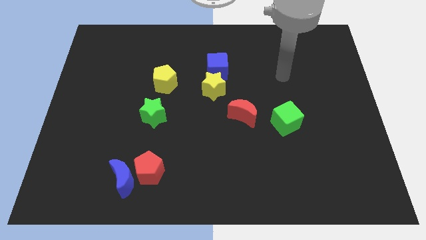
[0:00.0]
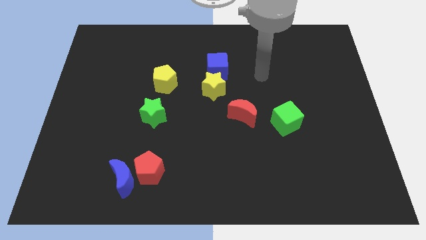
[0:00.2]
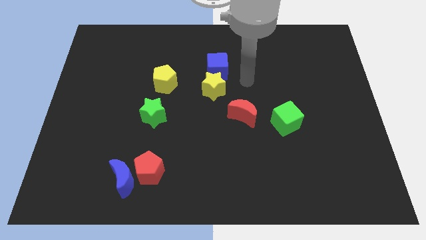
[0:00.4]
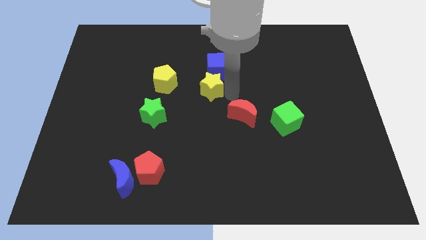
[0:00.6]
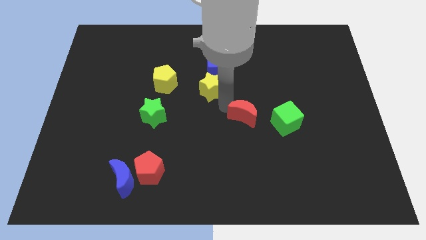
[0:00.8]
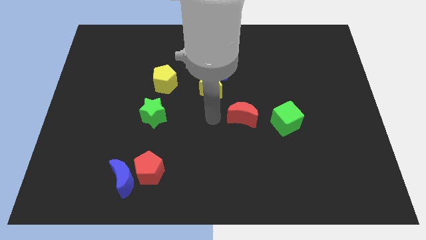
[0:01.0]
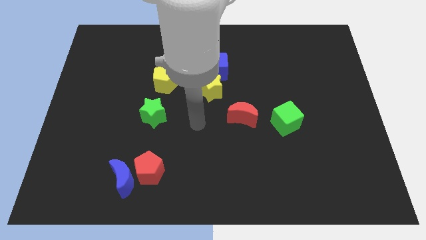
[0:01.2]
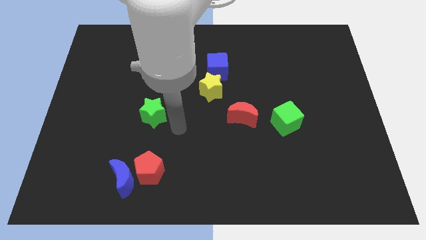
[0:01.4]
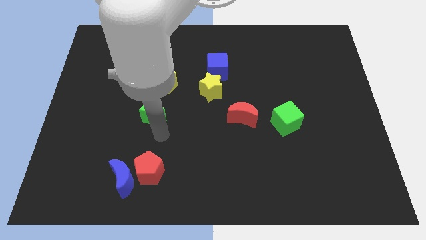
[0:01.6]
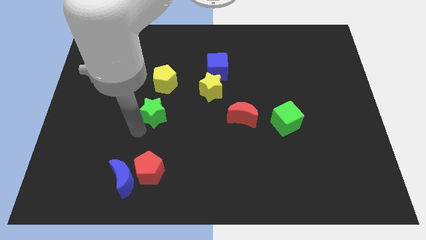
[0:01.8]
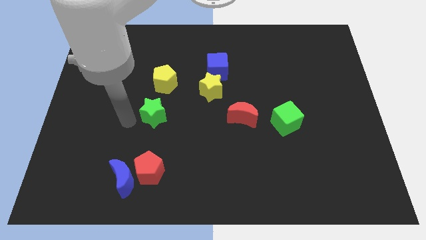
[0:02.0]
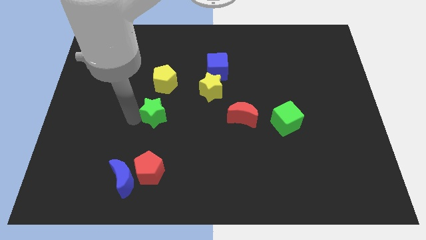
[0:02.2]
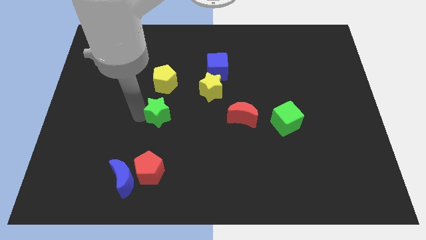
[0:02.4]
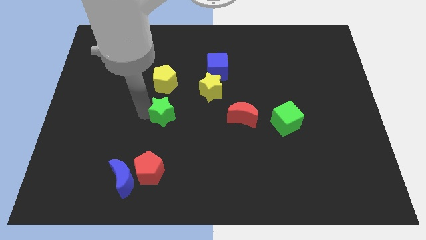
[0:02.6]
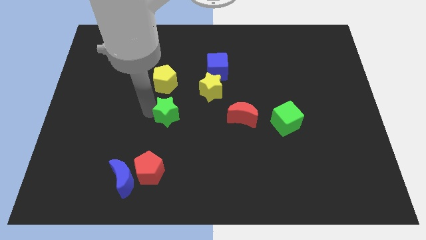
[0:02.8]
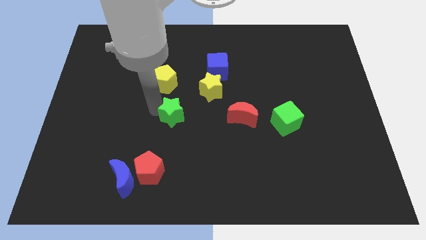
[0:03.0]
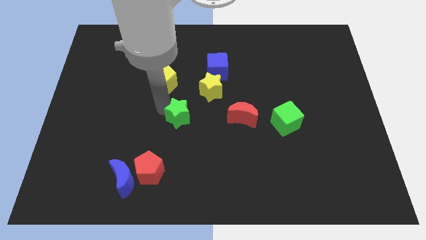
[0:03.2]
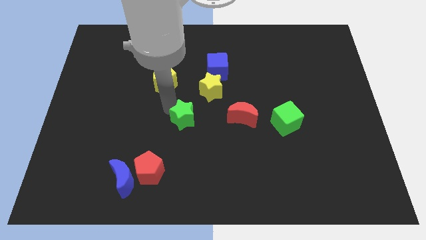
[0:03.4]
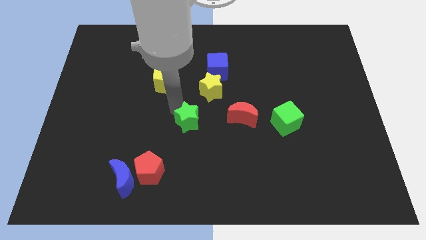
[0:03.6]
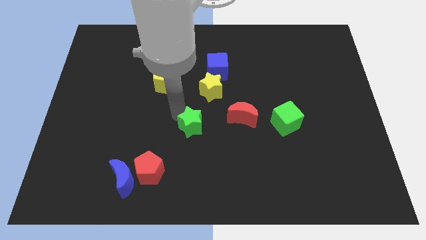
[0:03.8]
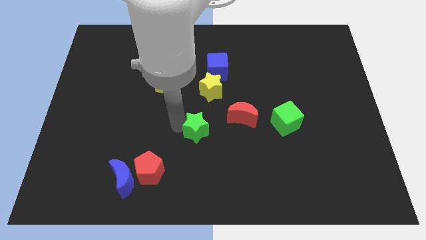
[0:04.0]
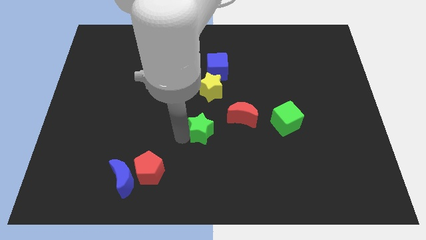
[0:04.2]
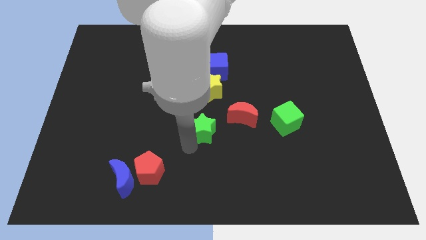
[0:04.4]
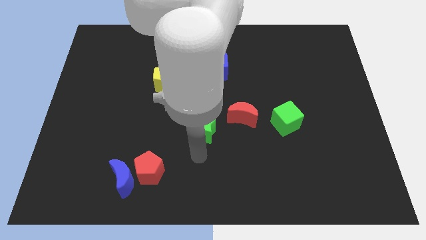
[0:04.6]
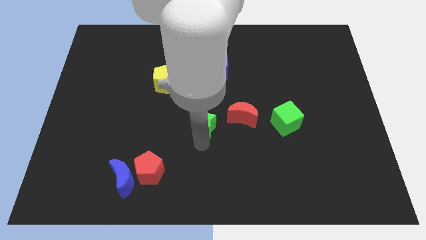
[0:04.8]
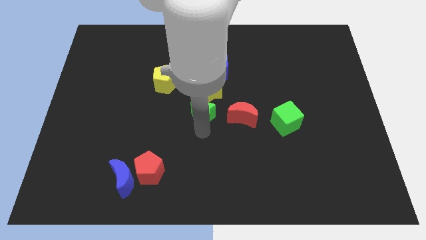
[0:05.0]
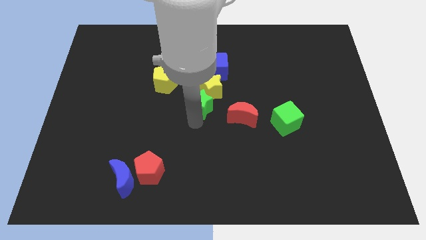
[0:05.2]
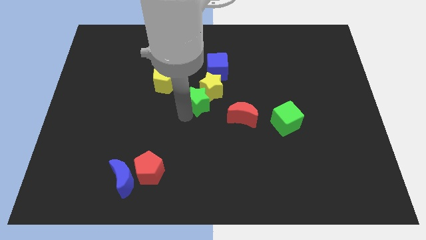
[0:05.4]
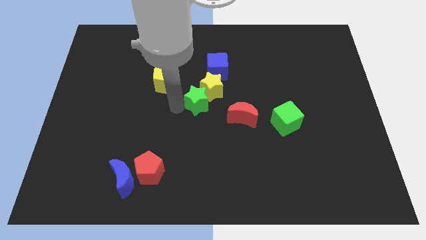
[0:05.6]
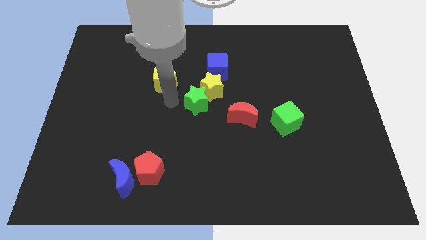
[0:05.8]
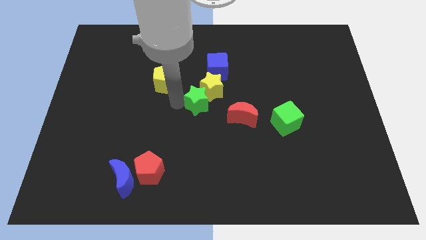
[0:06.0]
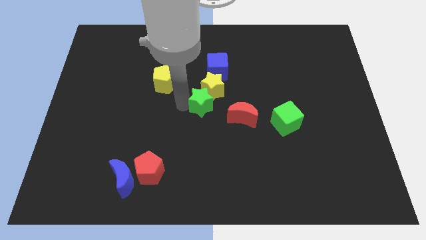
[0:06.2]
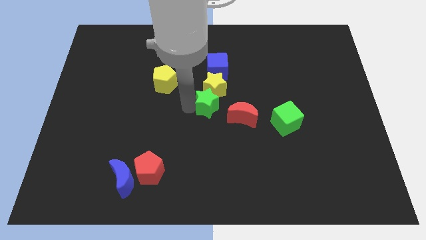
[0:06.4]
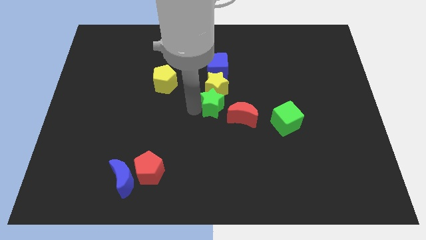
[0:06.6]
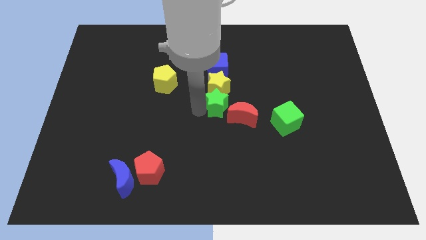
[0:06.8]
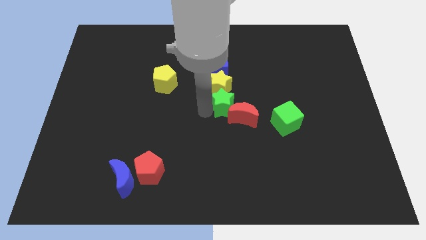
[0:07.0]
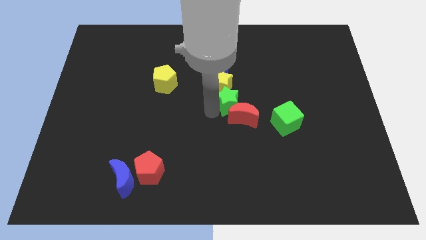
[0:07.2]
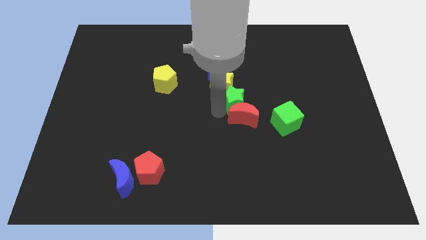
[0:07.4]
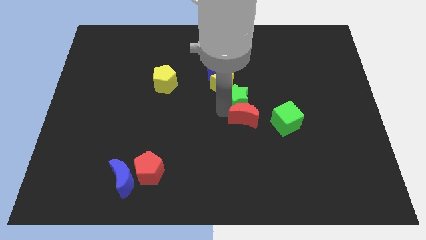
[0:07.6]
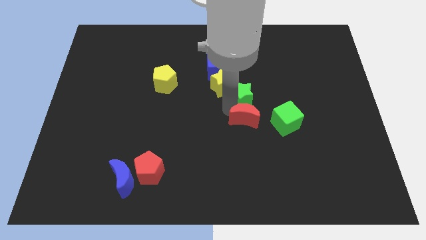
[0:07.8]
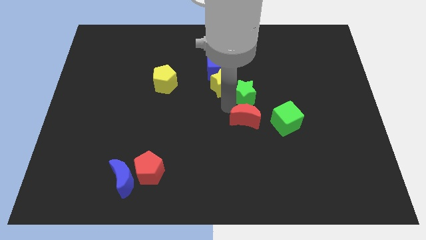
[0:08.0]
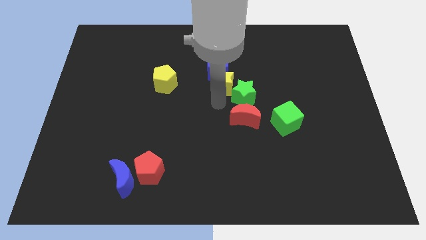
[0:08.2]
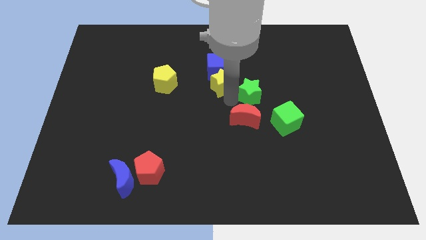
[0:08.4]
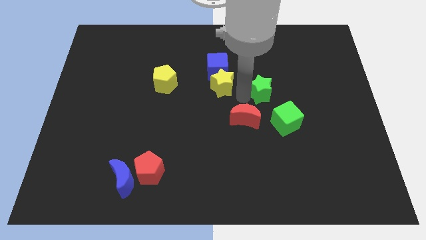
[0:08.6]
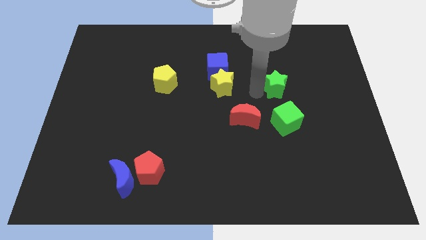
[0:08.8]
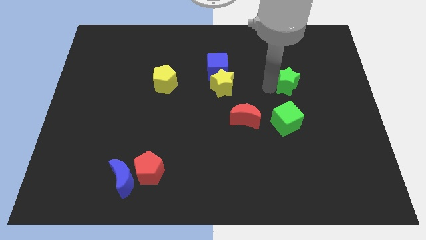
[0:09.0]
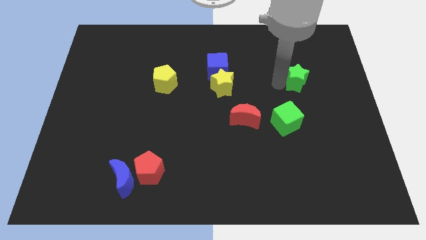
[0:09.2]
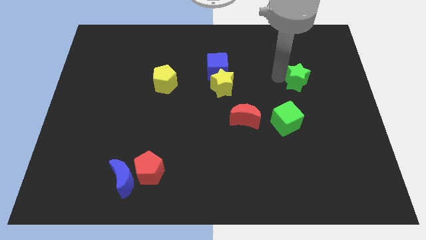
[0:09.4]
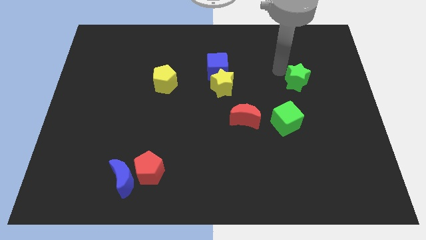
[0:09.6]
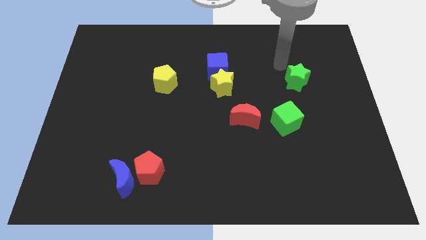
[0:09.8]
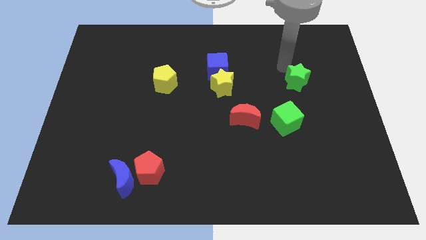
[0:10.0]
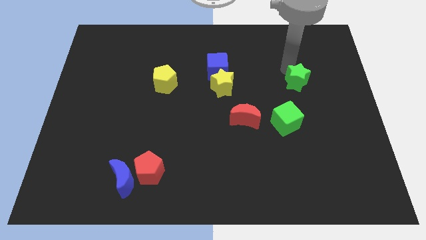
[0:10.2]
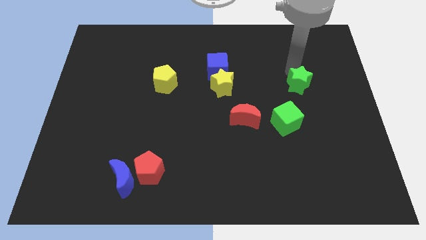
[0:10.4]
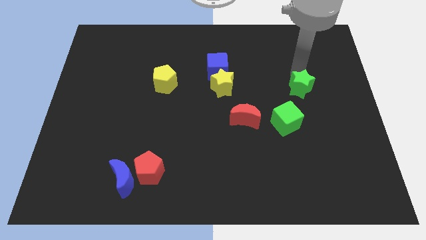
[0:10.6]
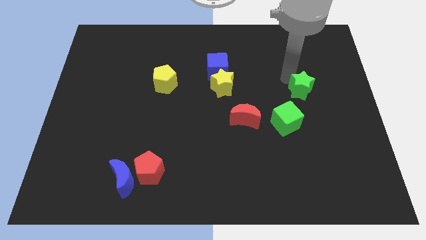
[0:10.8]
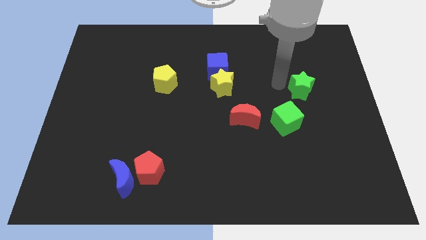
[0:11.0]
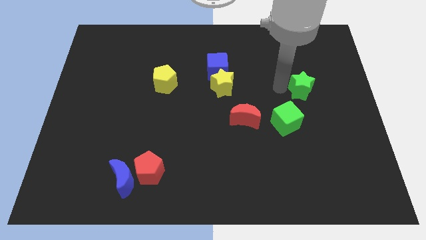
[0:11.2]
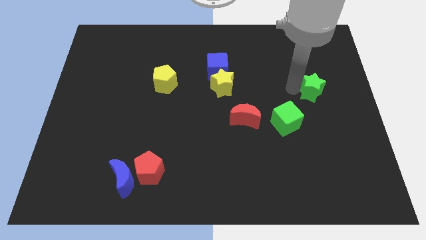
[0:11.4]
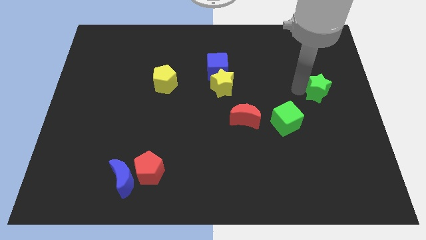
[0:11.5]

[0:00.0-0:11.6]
slide the green star to the right side of the board

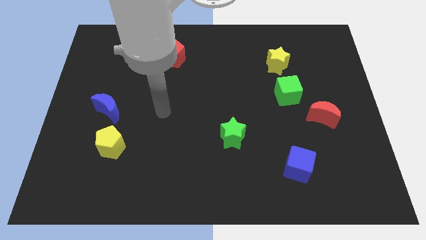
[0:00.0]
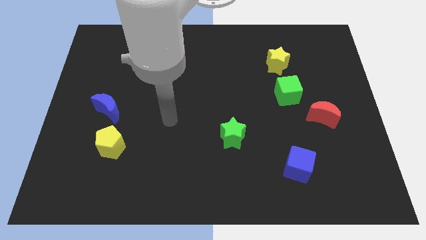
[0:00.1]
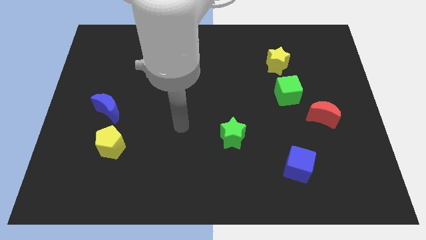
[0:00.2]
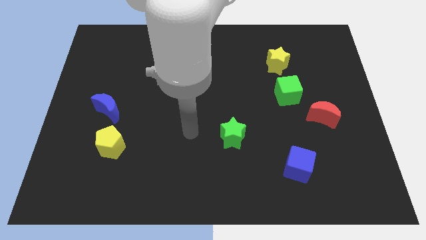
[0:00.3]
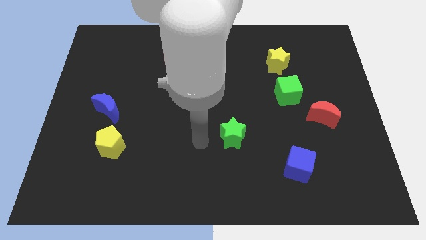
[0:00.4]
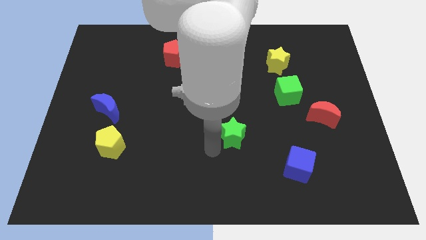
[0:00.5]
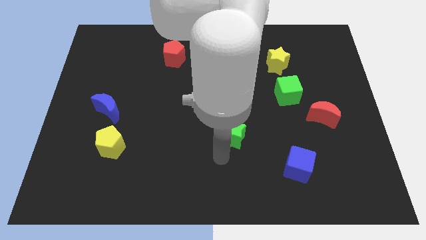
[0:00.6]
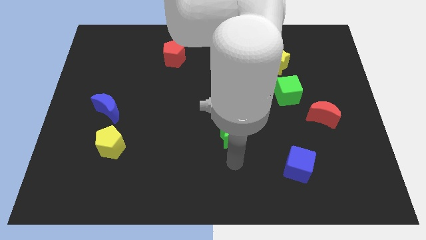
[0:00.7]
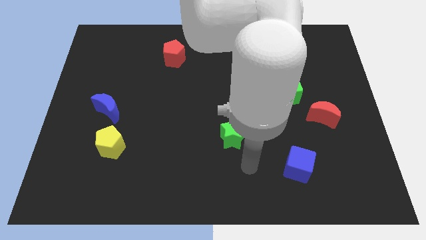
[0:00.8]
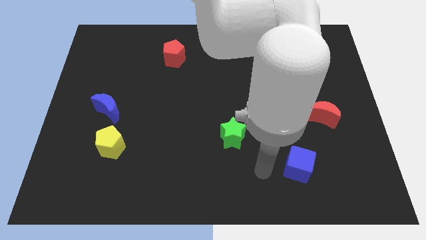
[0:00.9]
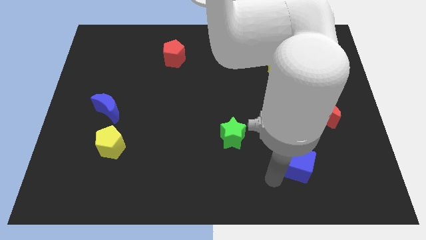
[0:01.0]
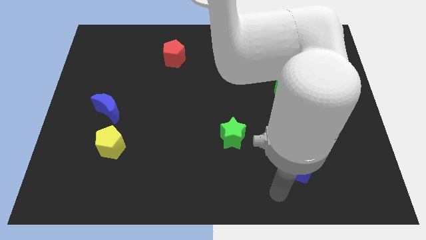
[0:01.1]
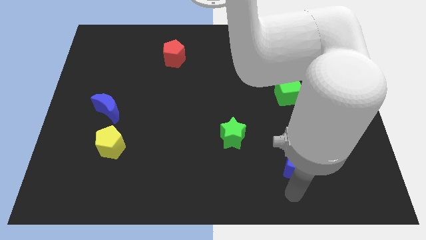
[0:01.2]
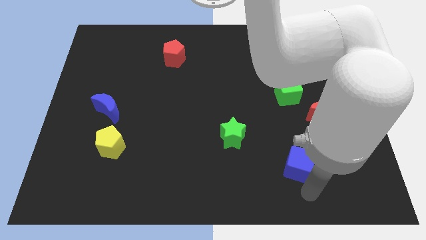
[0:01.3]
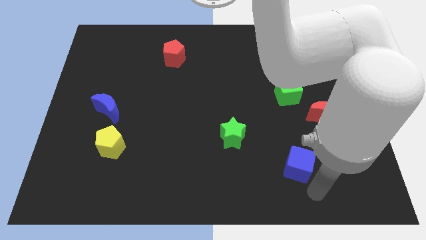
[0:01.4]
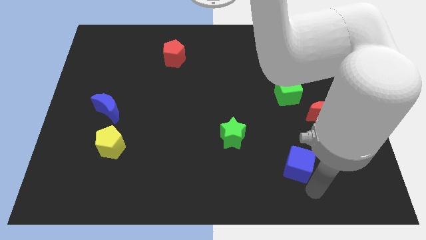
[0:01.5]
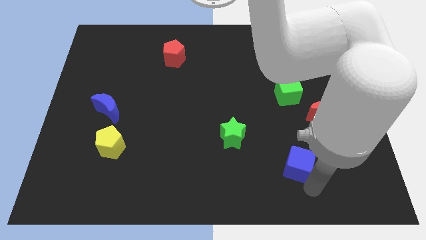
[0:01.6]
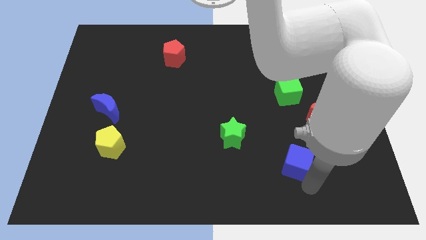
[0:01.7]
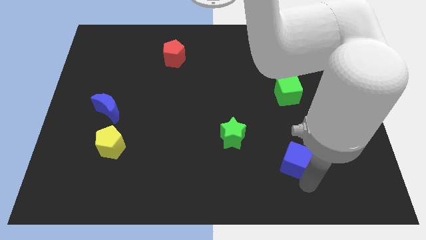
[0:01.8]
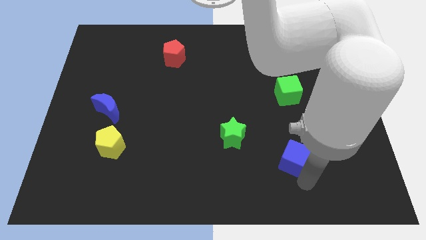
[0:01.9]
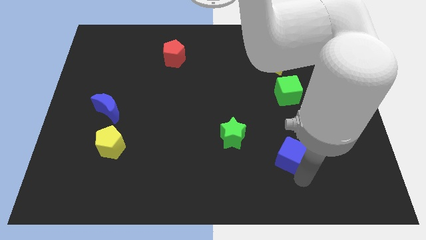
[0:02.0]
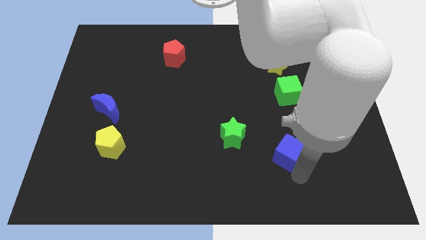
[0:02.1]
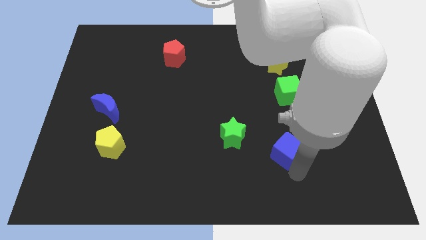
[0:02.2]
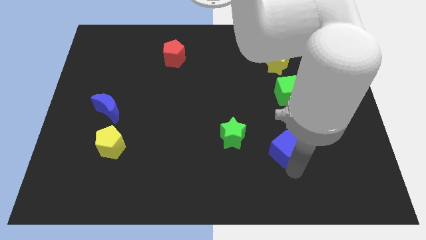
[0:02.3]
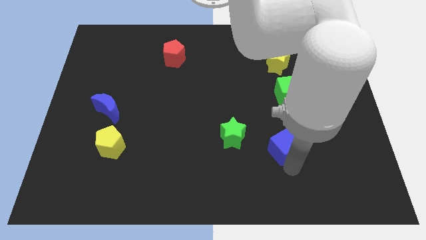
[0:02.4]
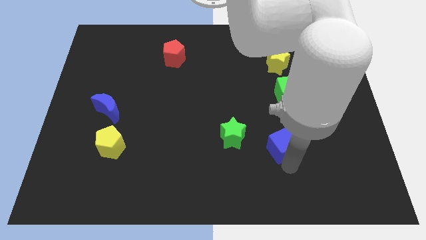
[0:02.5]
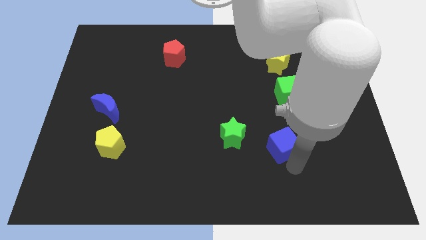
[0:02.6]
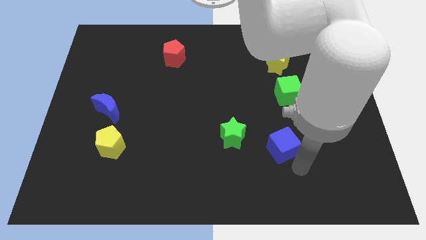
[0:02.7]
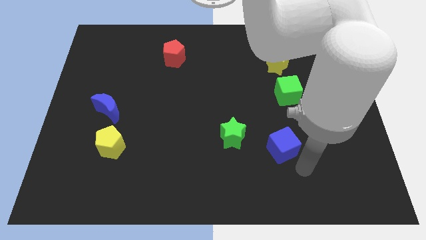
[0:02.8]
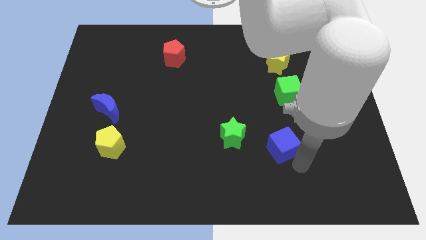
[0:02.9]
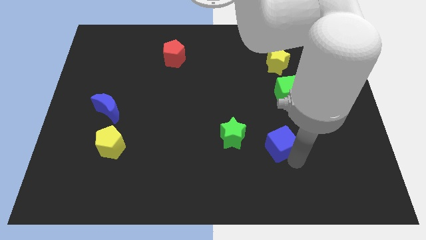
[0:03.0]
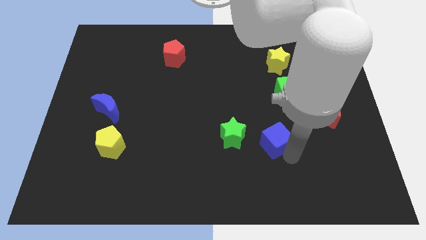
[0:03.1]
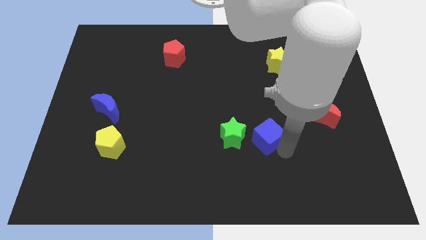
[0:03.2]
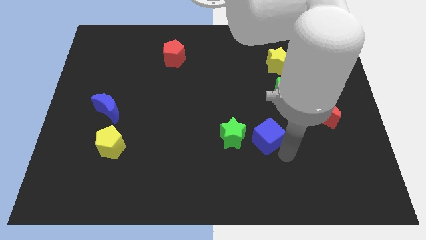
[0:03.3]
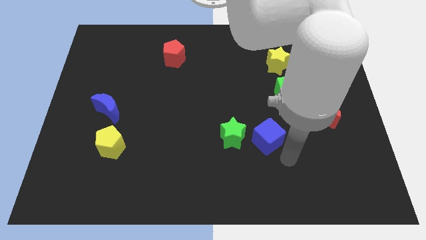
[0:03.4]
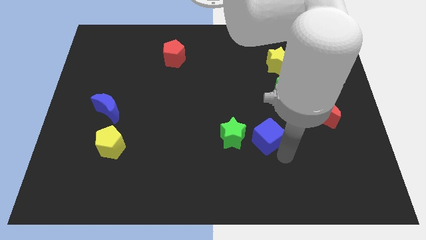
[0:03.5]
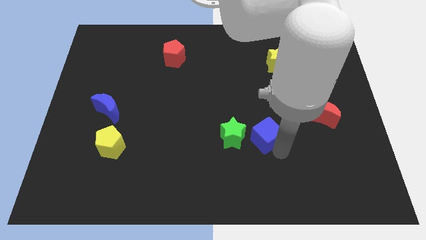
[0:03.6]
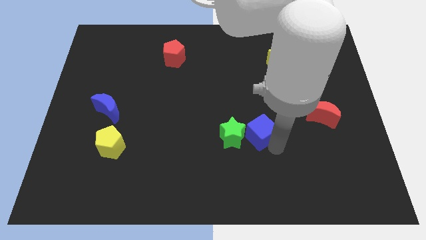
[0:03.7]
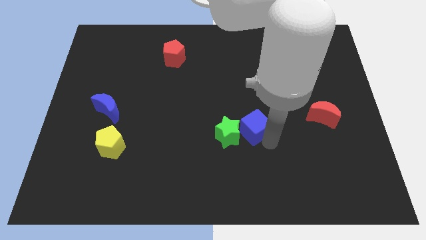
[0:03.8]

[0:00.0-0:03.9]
put the blue cube to the middle of the board
